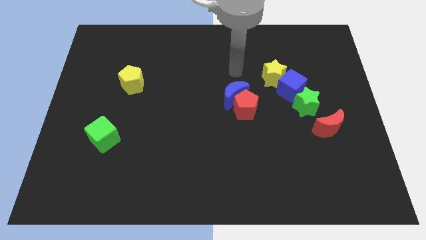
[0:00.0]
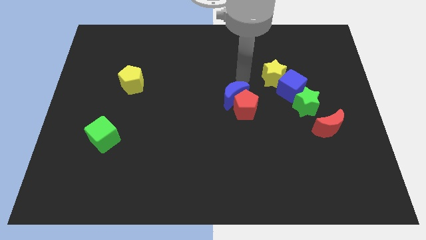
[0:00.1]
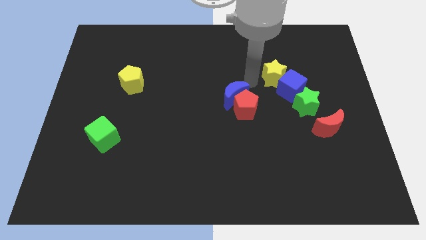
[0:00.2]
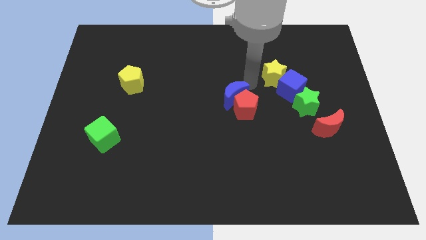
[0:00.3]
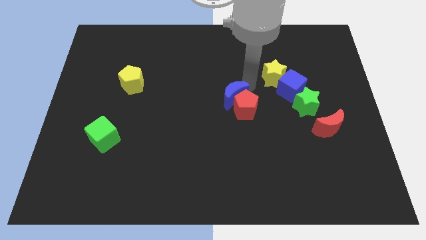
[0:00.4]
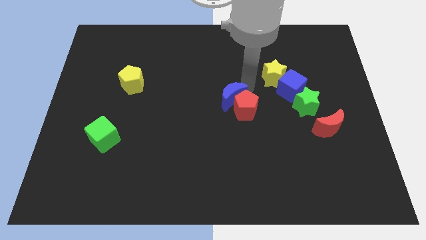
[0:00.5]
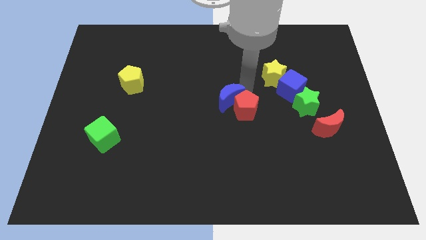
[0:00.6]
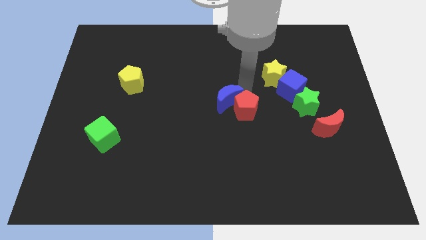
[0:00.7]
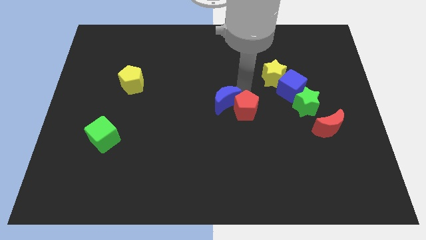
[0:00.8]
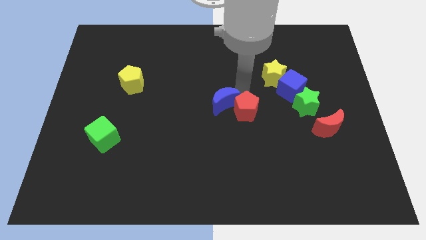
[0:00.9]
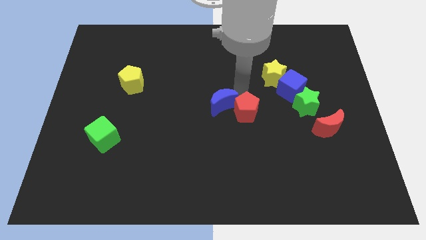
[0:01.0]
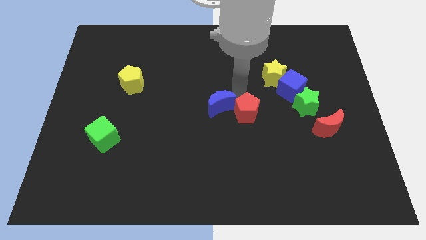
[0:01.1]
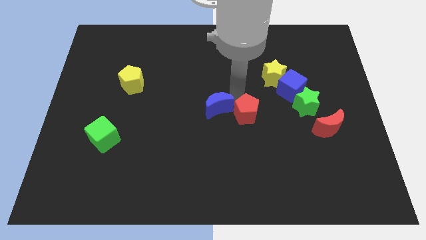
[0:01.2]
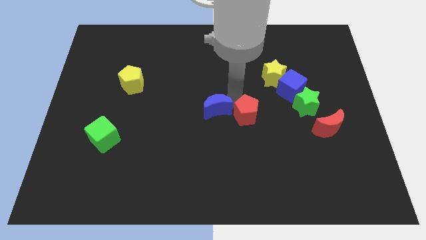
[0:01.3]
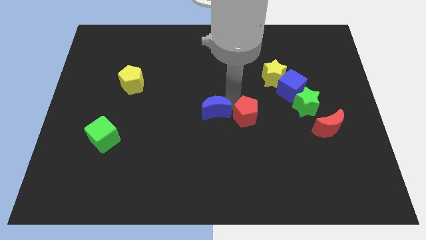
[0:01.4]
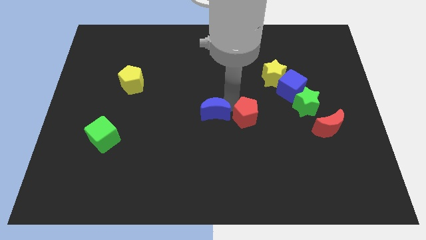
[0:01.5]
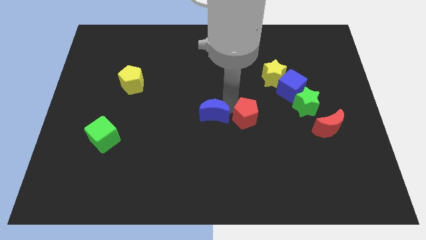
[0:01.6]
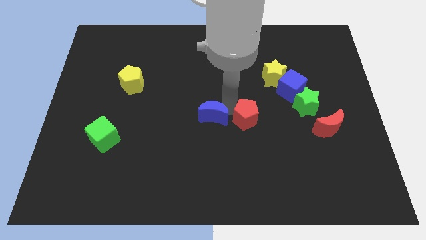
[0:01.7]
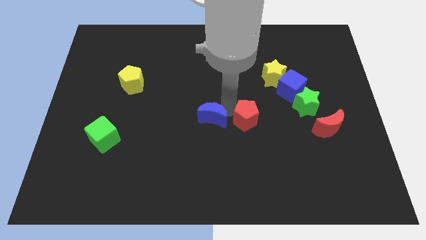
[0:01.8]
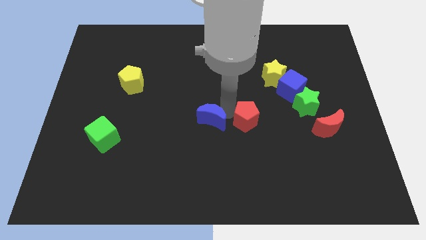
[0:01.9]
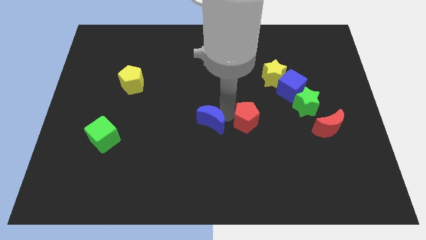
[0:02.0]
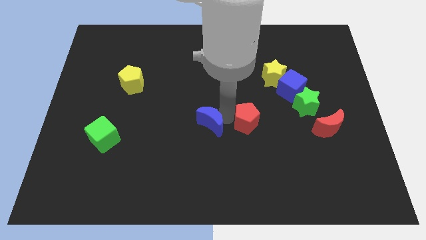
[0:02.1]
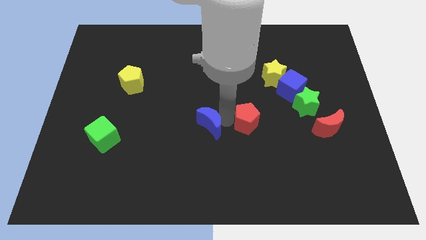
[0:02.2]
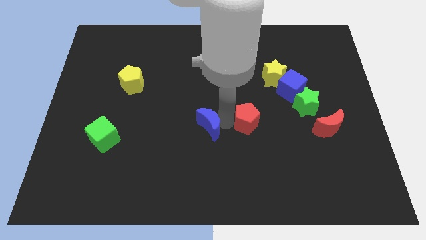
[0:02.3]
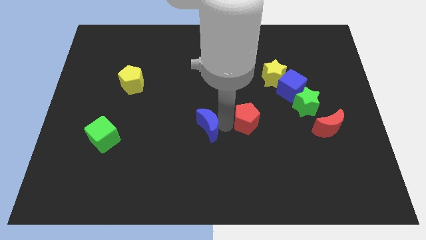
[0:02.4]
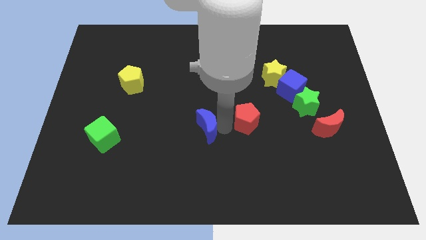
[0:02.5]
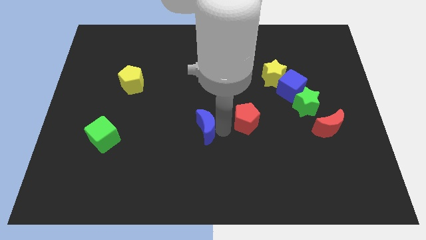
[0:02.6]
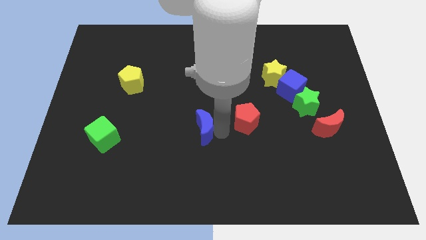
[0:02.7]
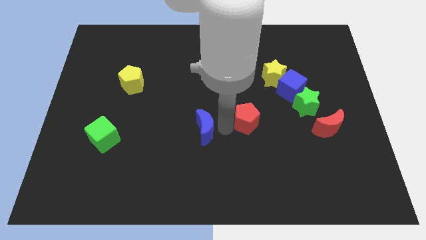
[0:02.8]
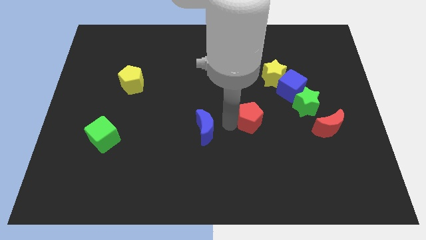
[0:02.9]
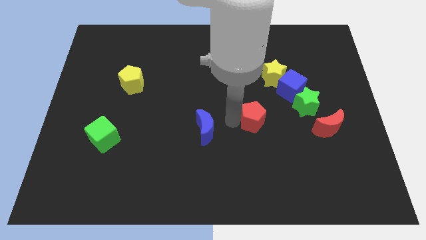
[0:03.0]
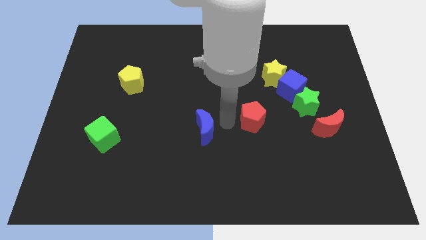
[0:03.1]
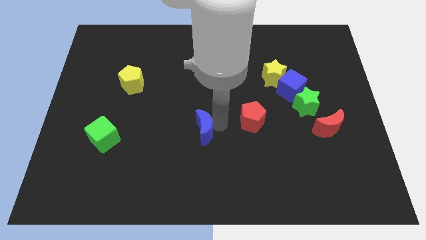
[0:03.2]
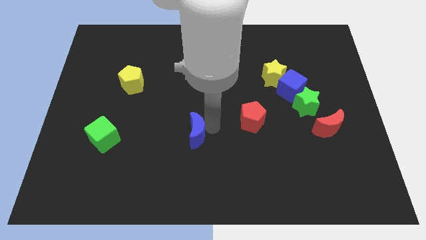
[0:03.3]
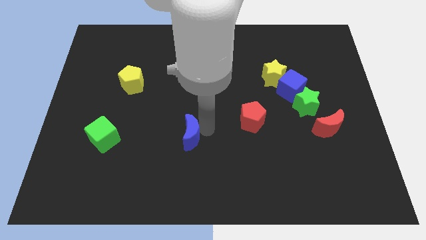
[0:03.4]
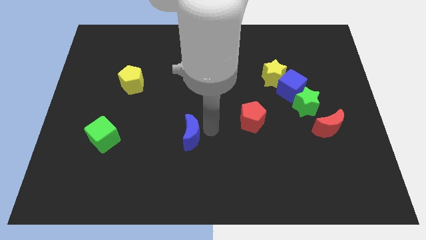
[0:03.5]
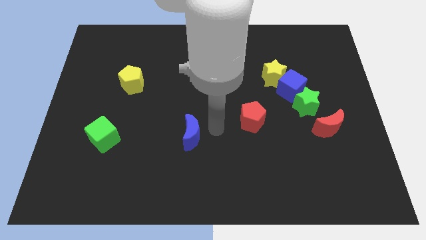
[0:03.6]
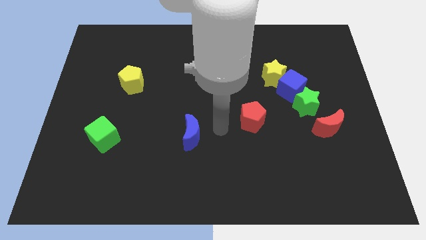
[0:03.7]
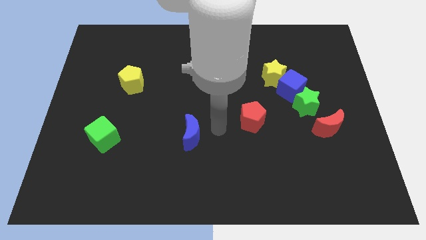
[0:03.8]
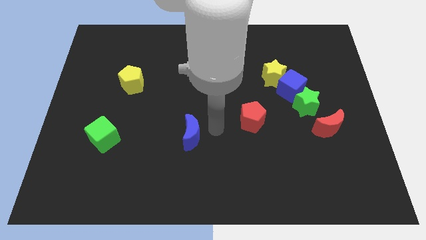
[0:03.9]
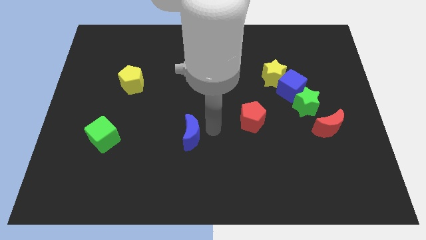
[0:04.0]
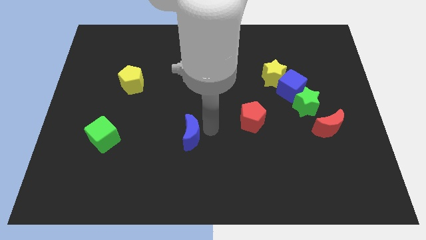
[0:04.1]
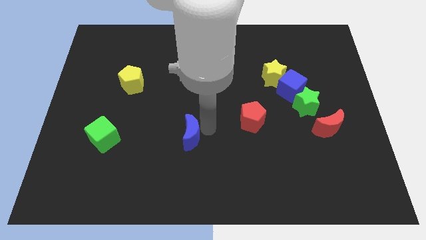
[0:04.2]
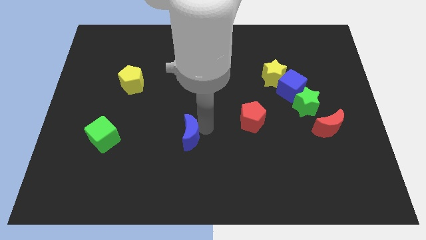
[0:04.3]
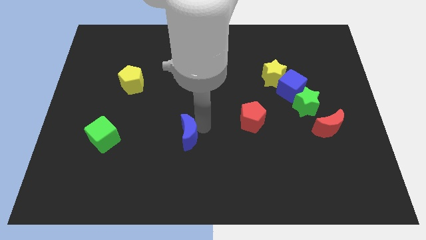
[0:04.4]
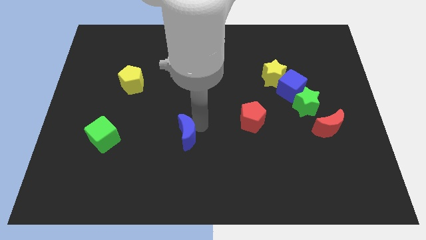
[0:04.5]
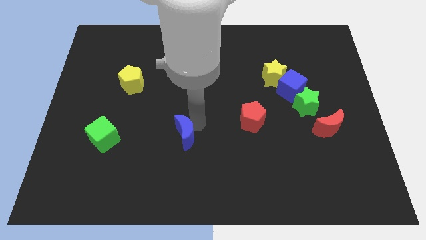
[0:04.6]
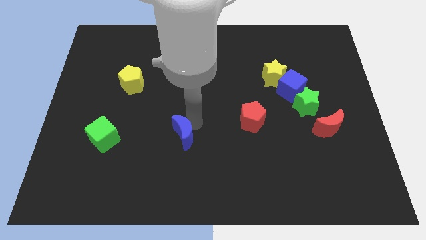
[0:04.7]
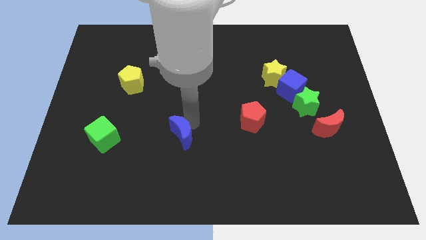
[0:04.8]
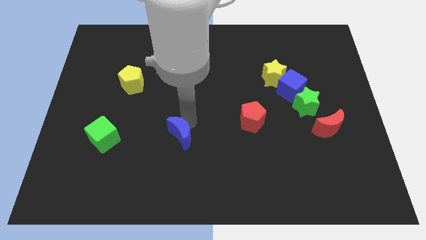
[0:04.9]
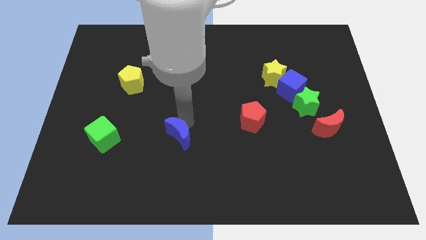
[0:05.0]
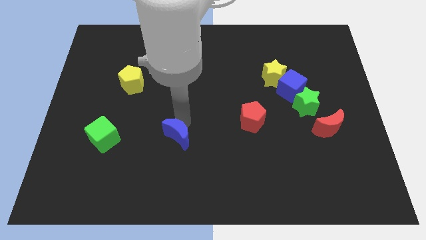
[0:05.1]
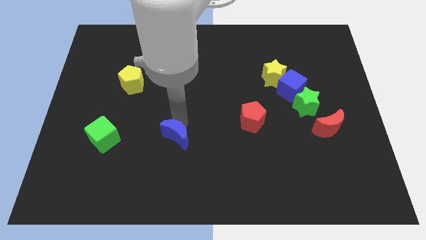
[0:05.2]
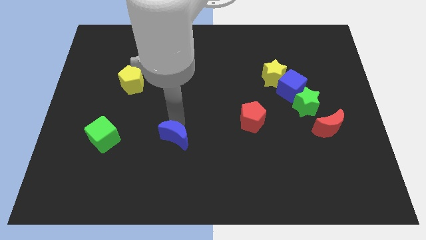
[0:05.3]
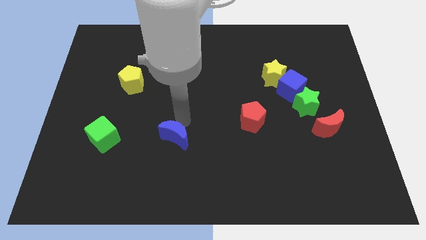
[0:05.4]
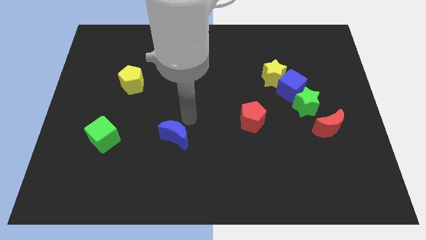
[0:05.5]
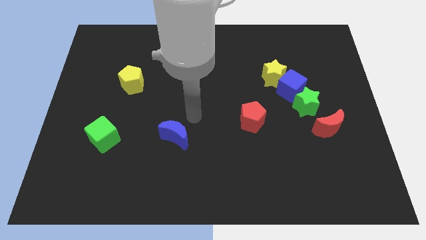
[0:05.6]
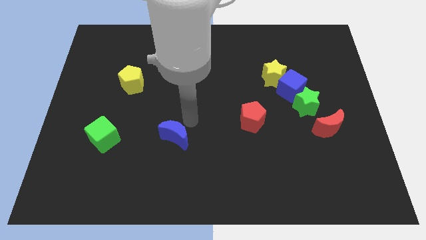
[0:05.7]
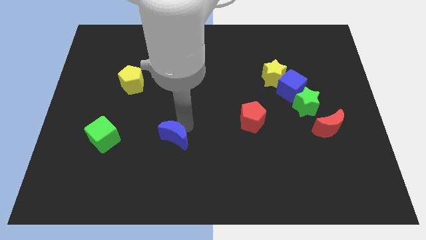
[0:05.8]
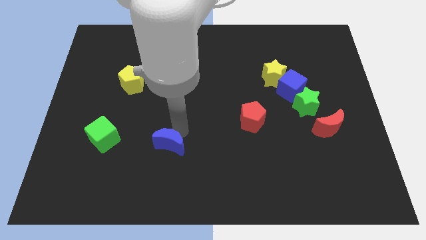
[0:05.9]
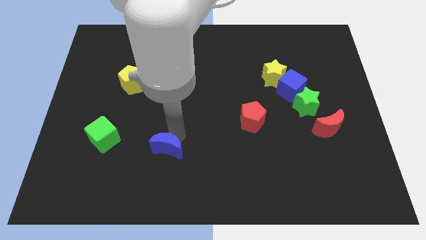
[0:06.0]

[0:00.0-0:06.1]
move the blue moon downwards and then to the left

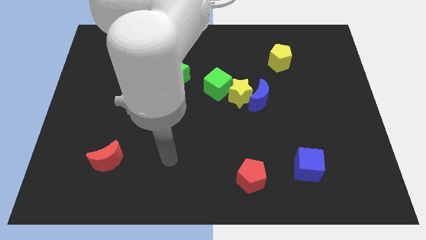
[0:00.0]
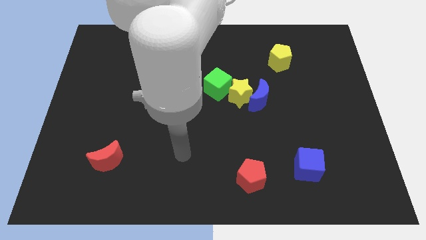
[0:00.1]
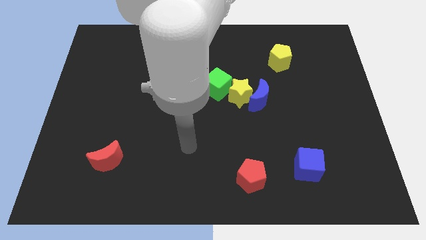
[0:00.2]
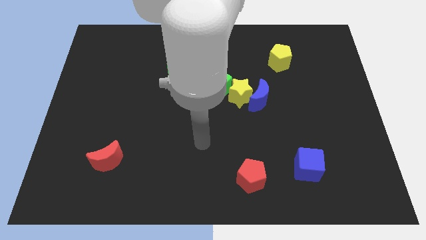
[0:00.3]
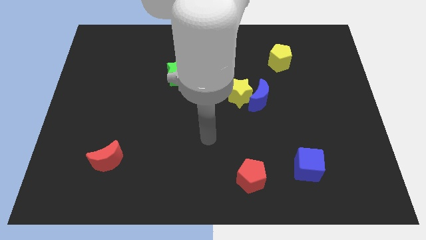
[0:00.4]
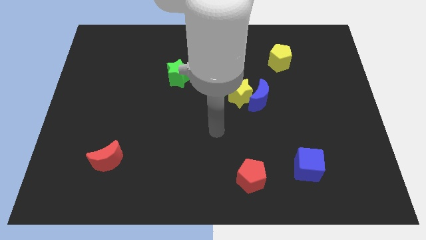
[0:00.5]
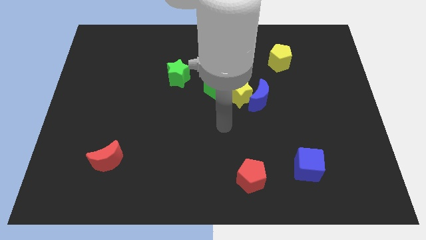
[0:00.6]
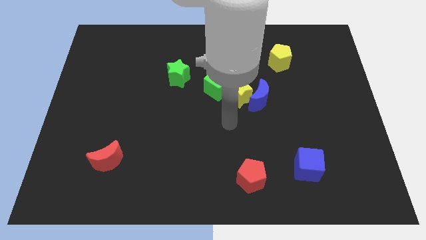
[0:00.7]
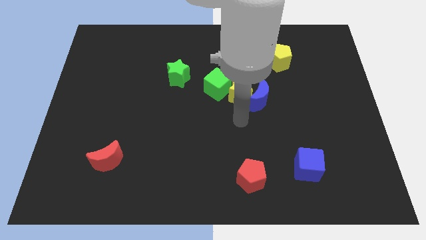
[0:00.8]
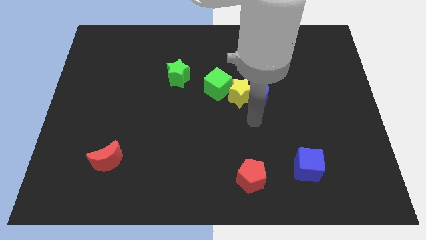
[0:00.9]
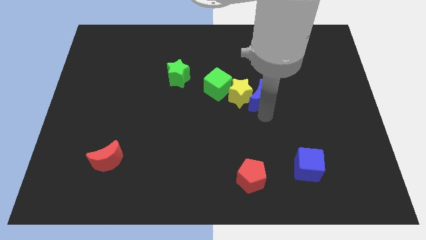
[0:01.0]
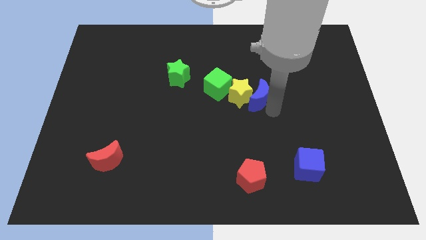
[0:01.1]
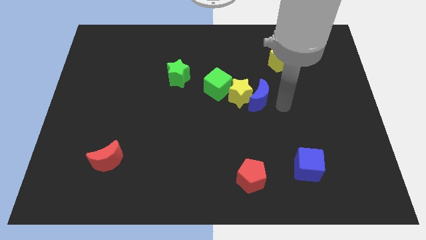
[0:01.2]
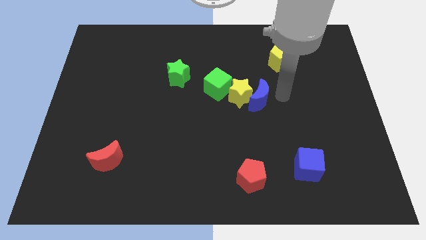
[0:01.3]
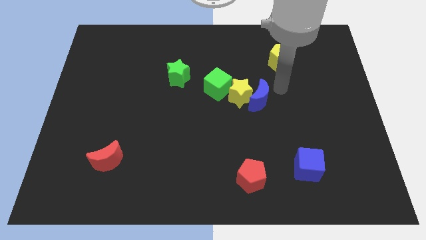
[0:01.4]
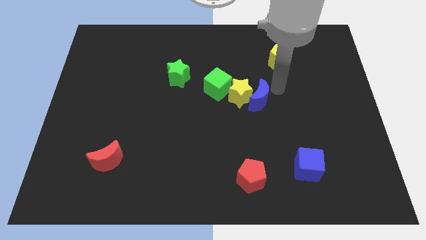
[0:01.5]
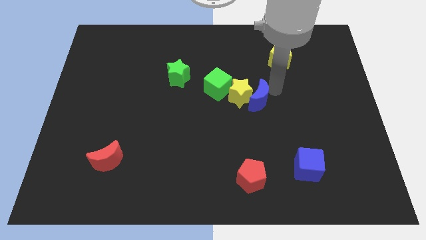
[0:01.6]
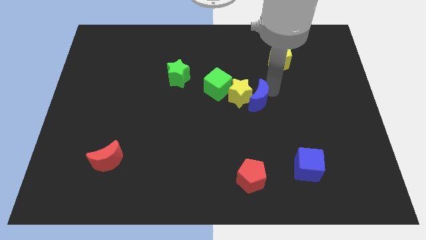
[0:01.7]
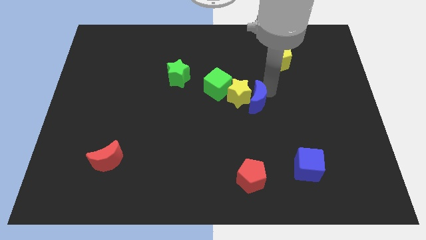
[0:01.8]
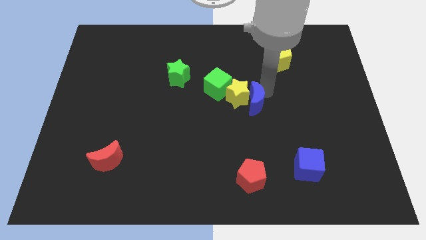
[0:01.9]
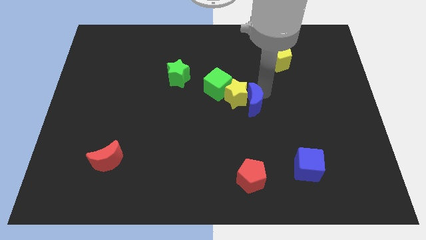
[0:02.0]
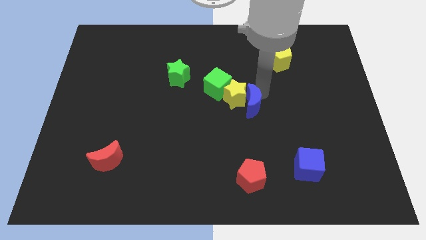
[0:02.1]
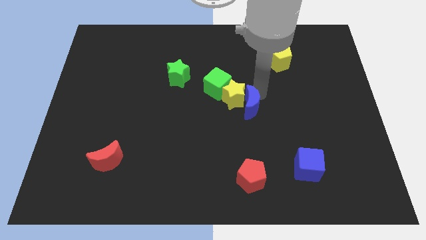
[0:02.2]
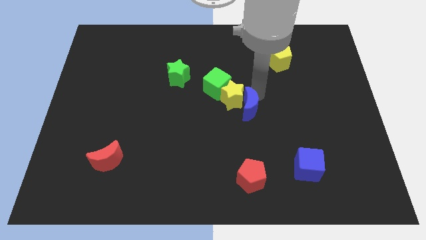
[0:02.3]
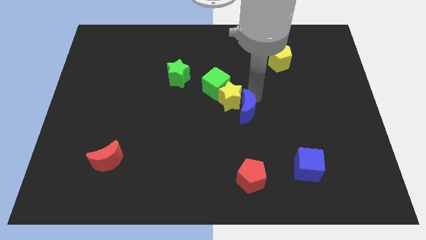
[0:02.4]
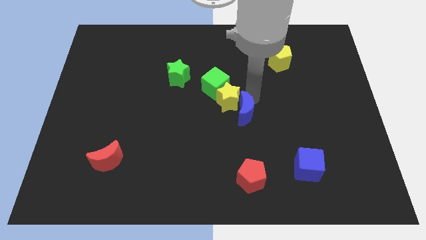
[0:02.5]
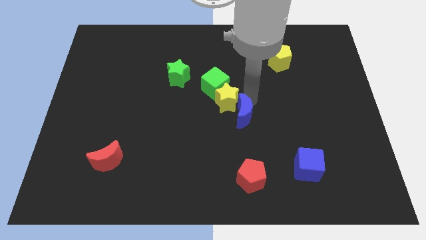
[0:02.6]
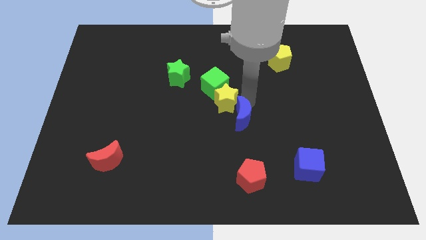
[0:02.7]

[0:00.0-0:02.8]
slightly slide the blue moon downwards and to the left
